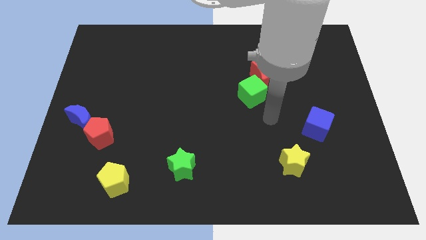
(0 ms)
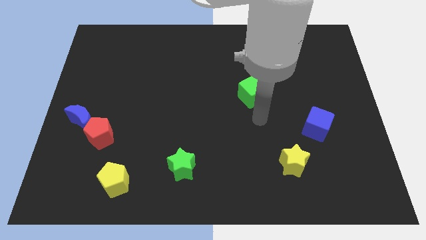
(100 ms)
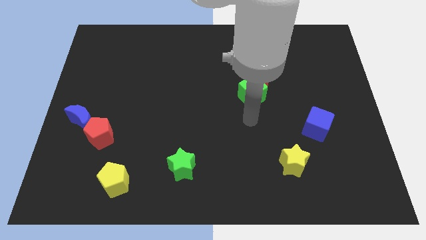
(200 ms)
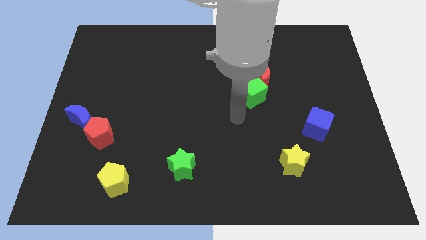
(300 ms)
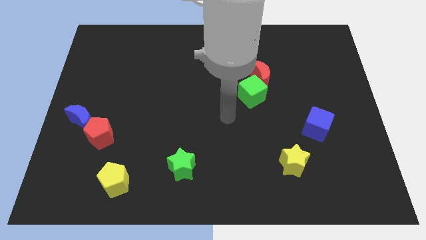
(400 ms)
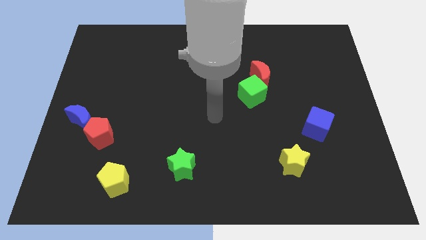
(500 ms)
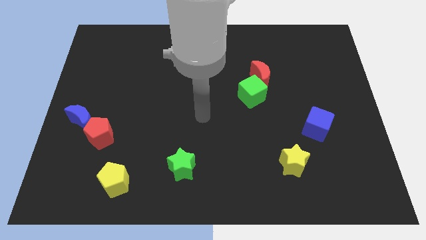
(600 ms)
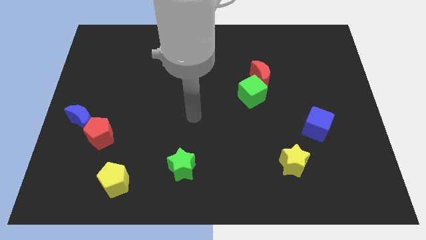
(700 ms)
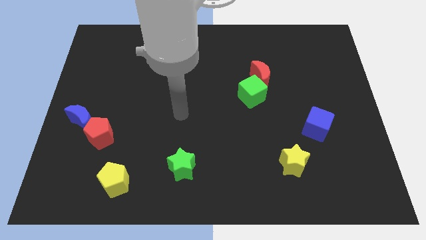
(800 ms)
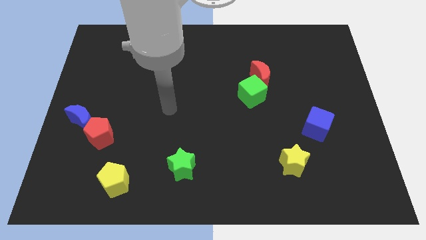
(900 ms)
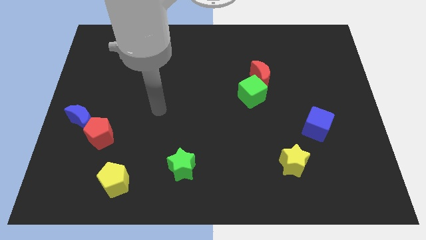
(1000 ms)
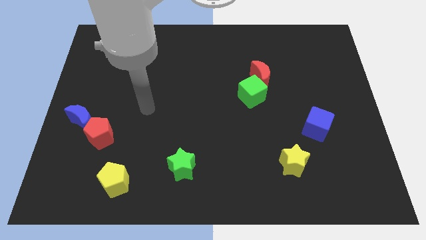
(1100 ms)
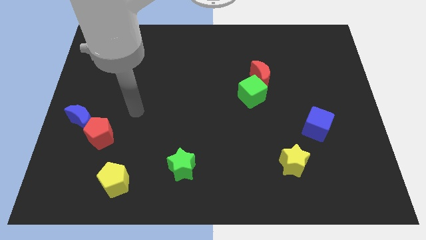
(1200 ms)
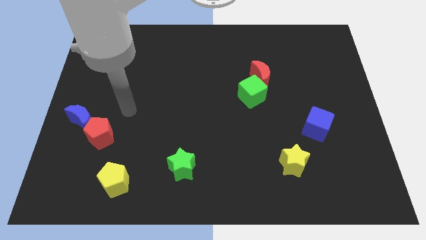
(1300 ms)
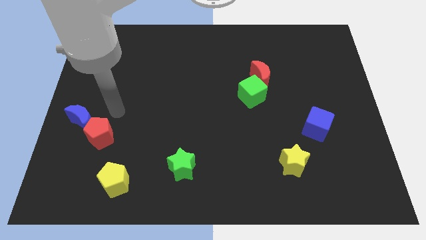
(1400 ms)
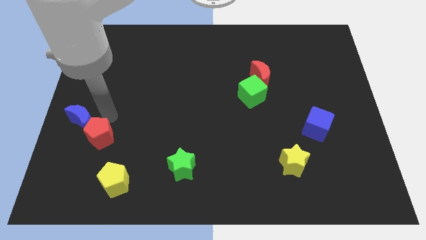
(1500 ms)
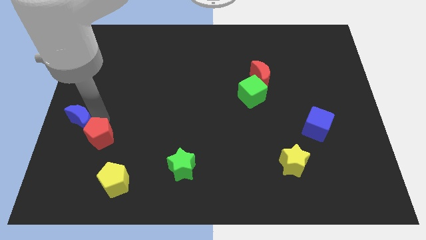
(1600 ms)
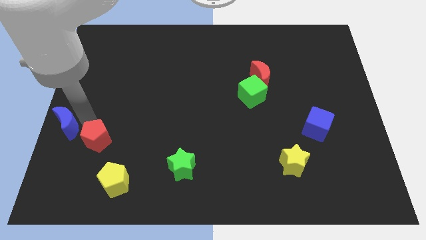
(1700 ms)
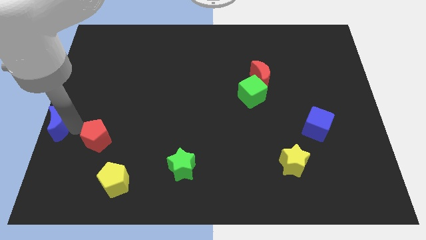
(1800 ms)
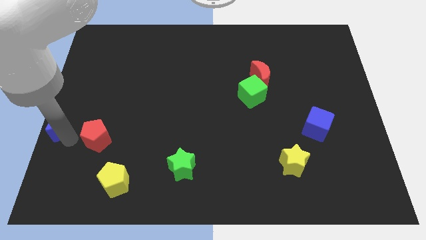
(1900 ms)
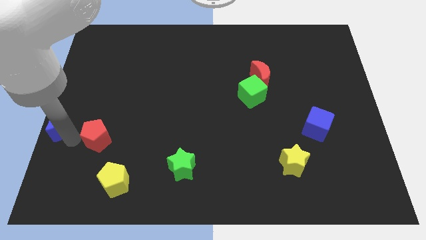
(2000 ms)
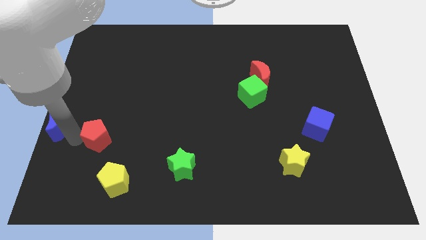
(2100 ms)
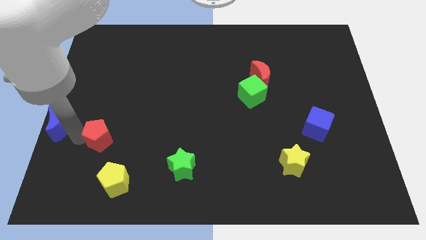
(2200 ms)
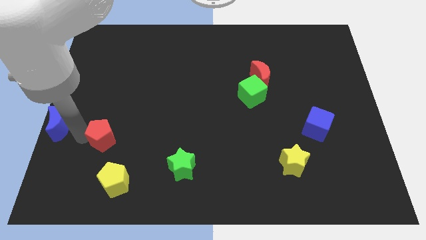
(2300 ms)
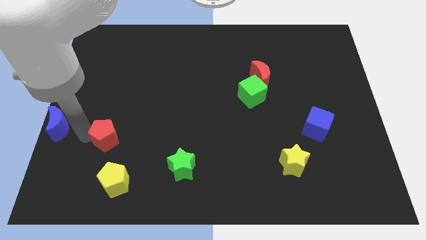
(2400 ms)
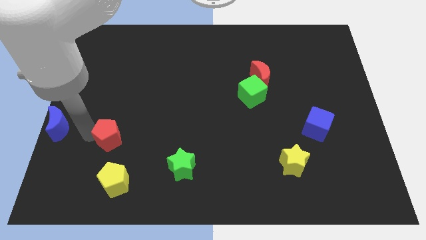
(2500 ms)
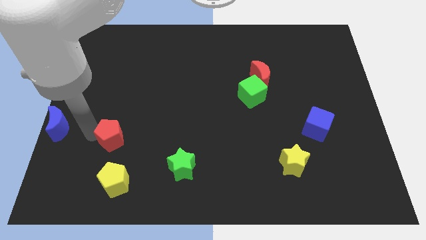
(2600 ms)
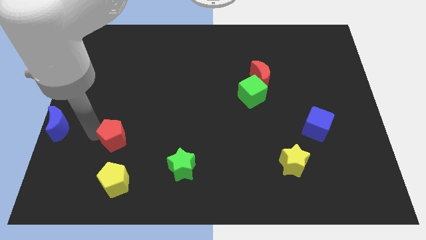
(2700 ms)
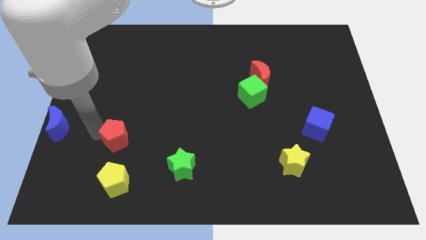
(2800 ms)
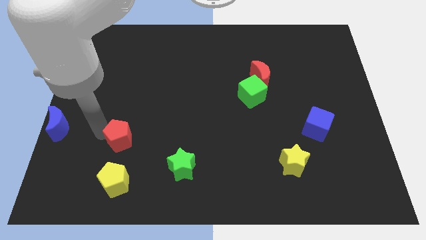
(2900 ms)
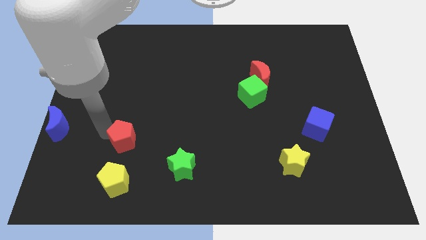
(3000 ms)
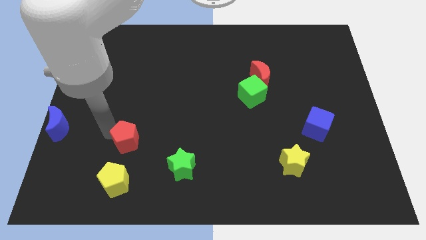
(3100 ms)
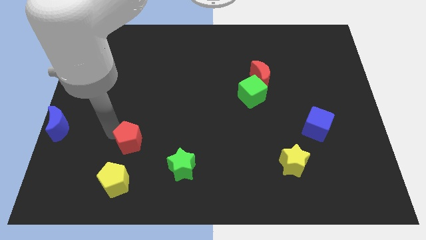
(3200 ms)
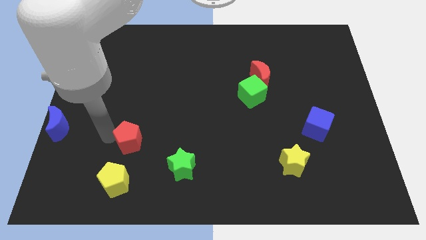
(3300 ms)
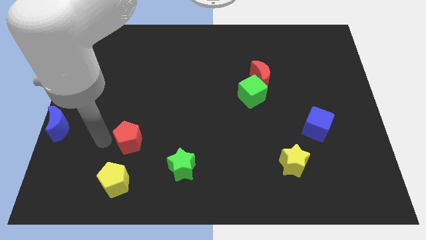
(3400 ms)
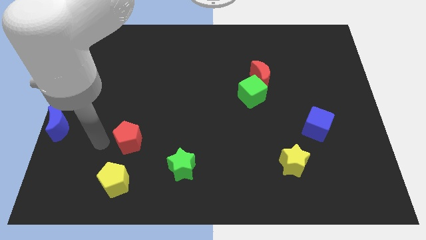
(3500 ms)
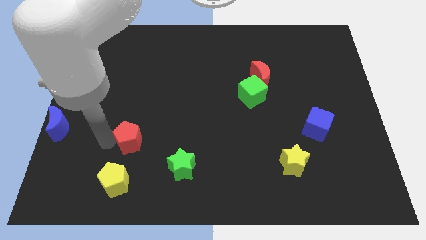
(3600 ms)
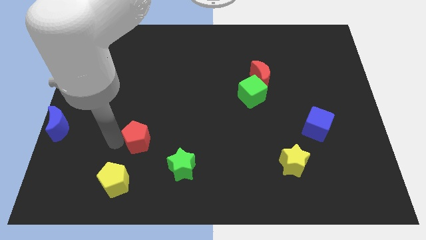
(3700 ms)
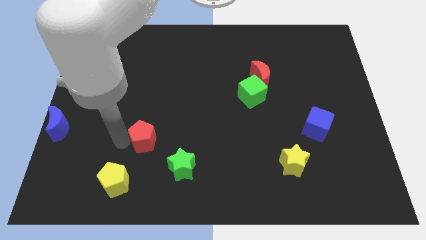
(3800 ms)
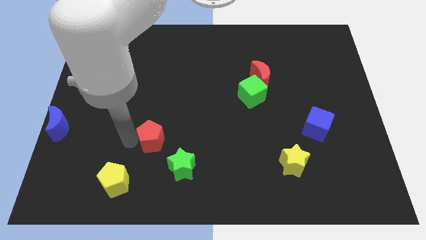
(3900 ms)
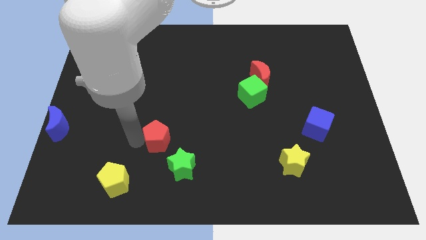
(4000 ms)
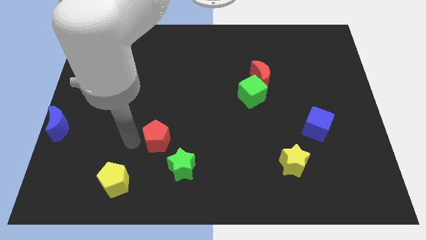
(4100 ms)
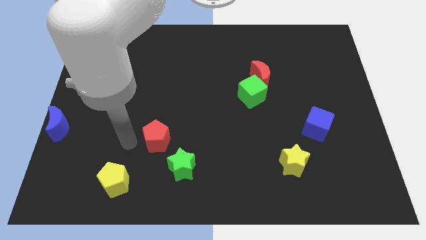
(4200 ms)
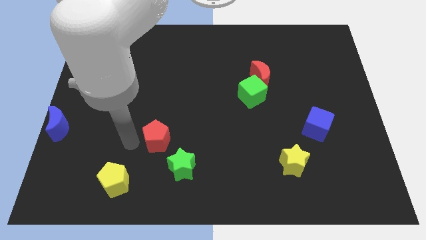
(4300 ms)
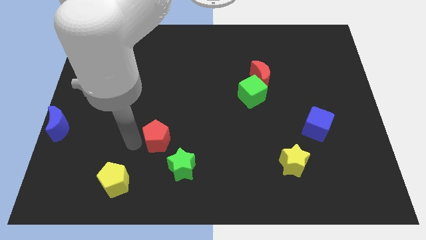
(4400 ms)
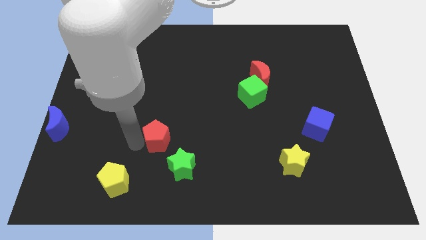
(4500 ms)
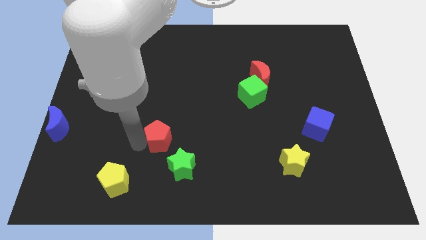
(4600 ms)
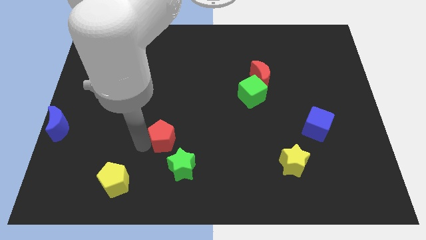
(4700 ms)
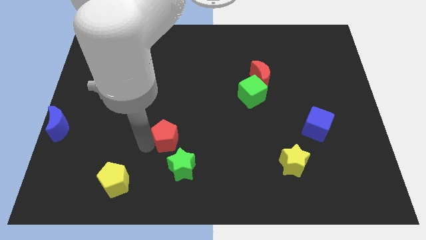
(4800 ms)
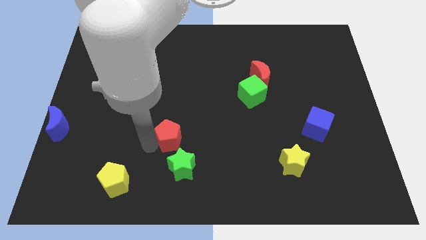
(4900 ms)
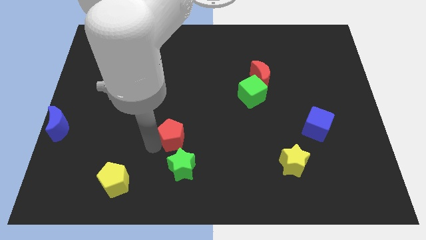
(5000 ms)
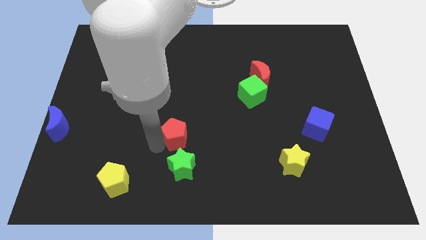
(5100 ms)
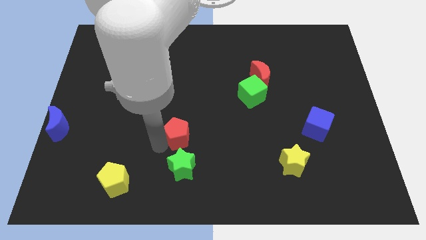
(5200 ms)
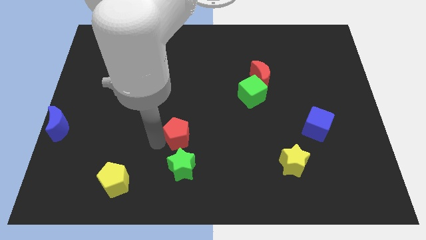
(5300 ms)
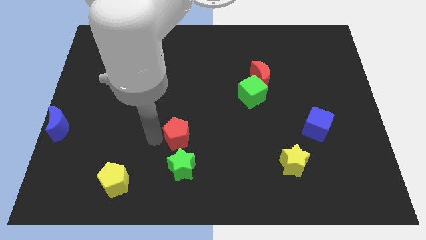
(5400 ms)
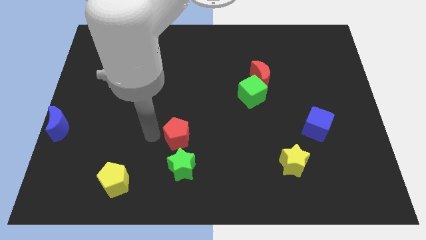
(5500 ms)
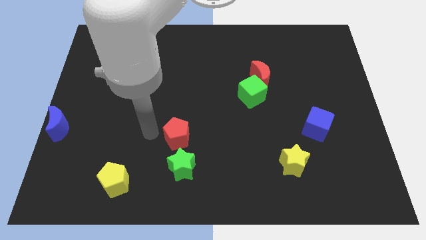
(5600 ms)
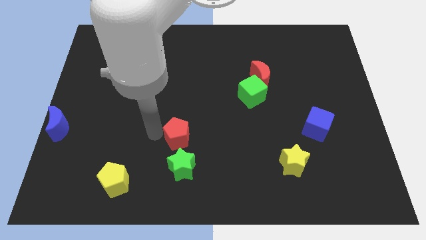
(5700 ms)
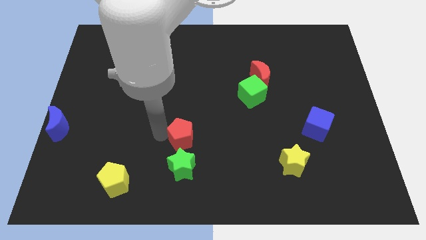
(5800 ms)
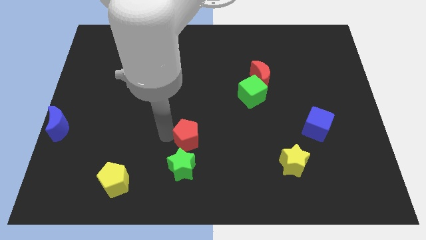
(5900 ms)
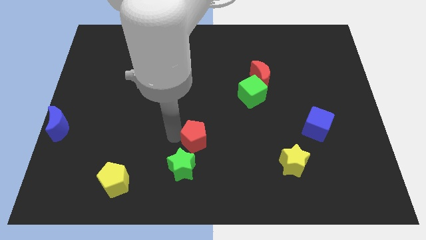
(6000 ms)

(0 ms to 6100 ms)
push the red pentagon right

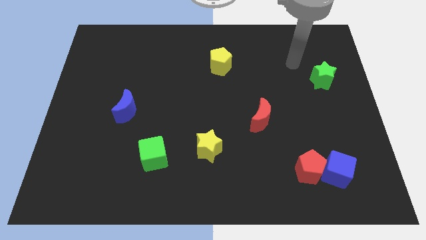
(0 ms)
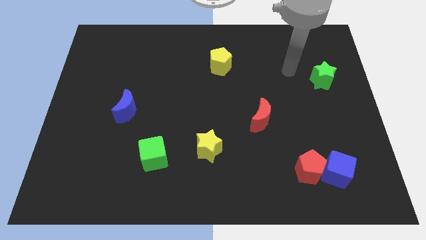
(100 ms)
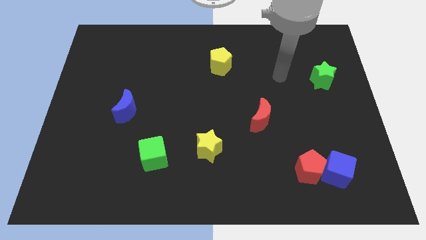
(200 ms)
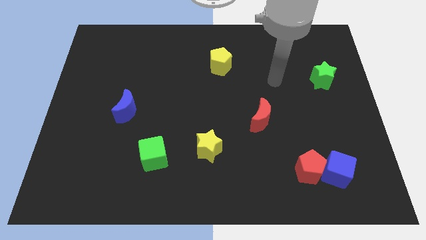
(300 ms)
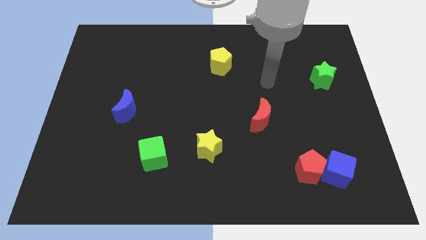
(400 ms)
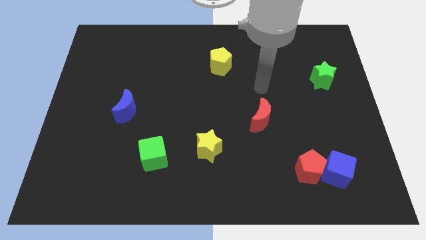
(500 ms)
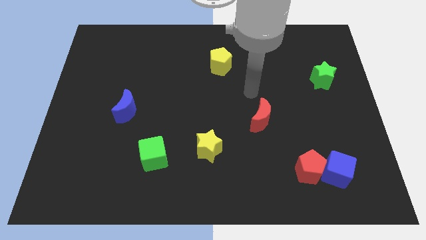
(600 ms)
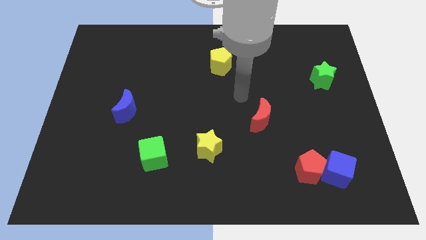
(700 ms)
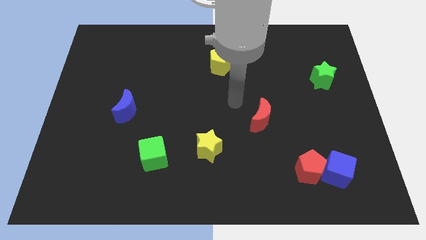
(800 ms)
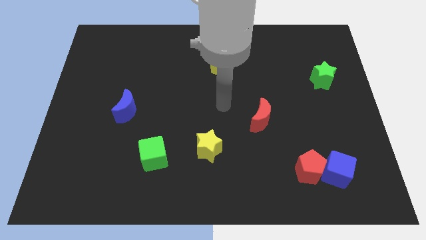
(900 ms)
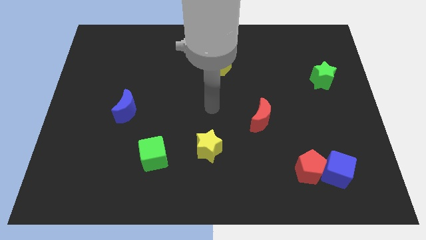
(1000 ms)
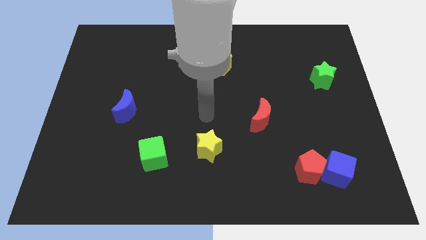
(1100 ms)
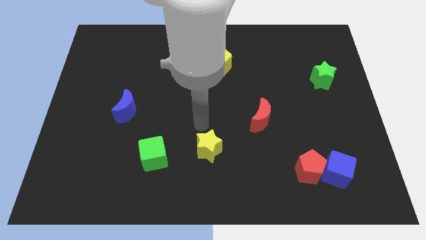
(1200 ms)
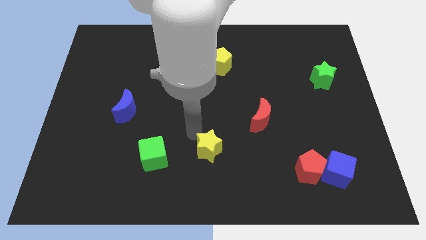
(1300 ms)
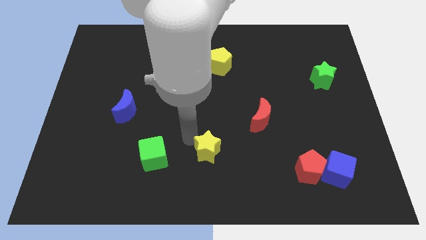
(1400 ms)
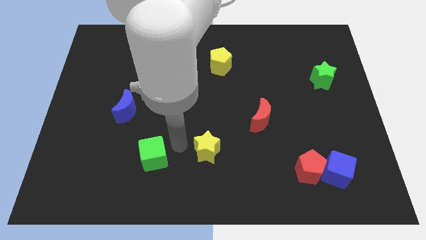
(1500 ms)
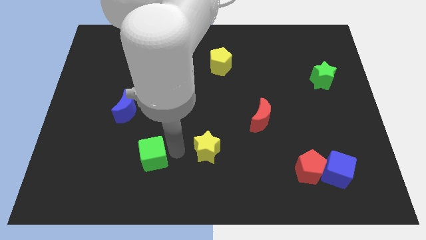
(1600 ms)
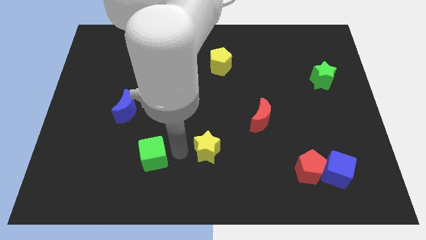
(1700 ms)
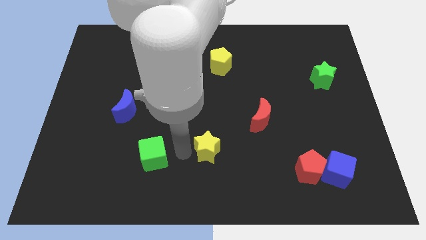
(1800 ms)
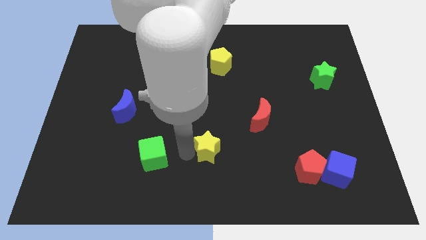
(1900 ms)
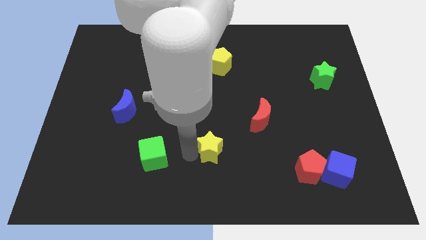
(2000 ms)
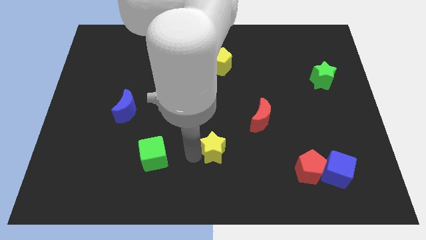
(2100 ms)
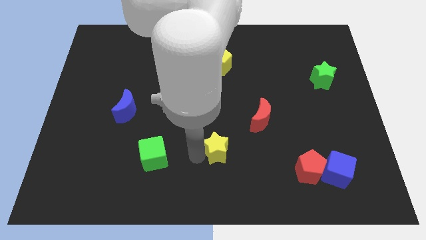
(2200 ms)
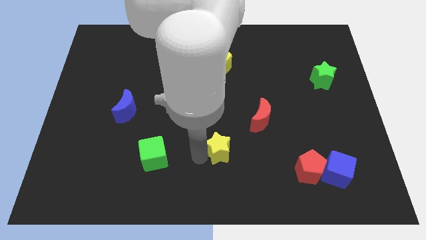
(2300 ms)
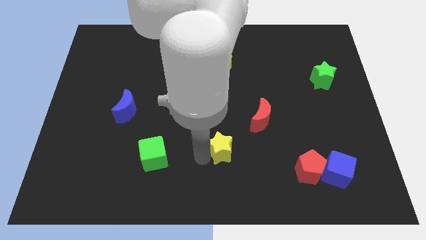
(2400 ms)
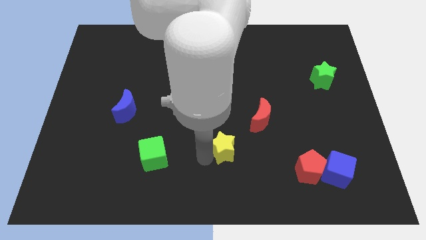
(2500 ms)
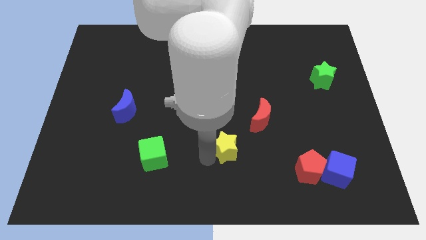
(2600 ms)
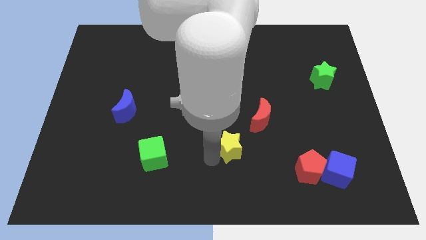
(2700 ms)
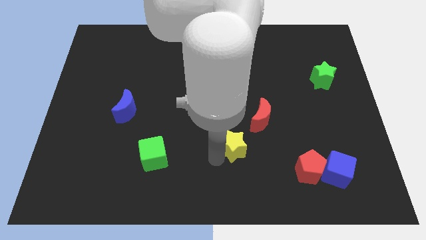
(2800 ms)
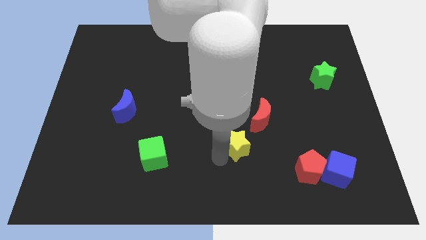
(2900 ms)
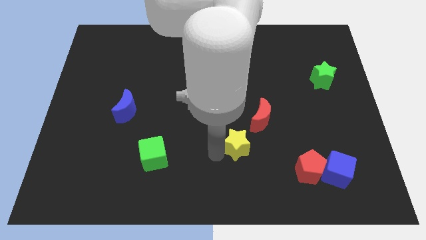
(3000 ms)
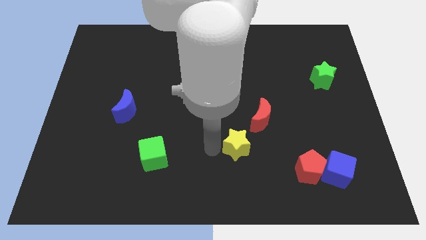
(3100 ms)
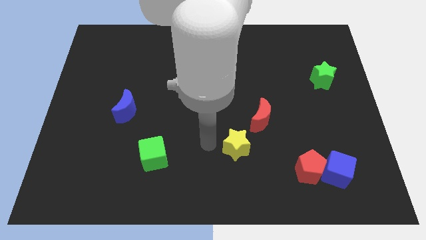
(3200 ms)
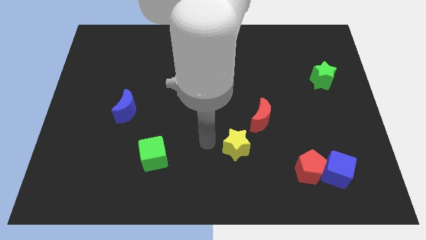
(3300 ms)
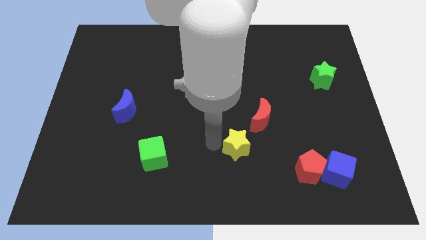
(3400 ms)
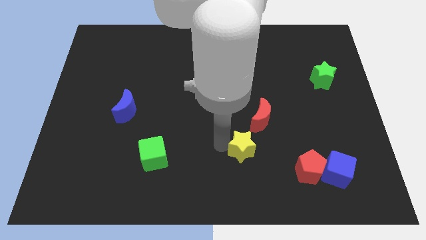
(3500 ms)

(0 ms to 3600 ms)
slightly slide the yellow star right
